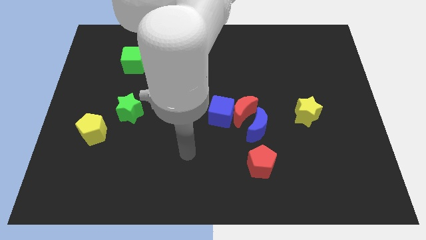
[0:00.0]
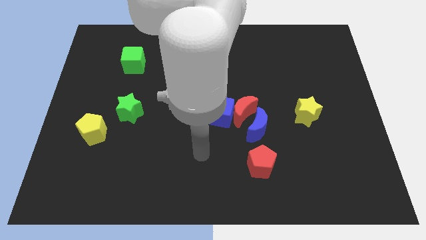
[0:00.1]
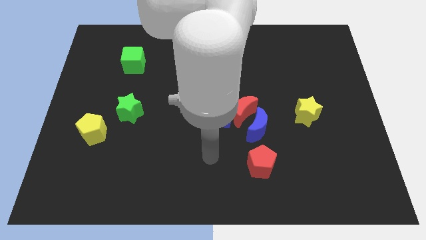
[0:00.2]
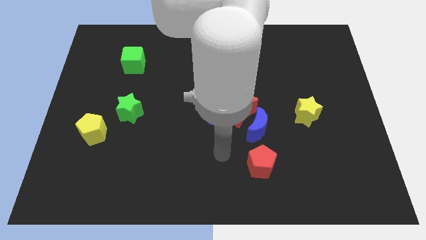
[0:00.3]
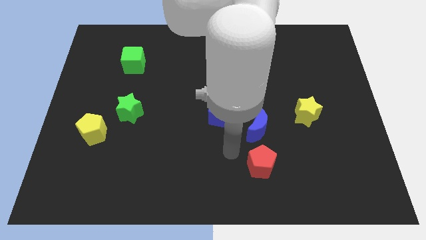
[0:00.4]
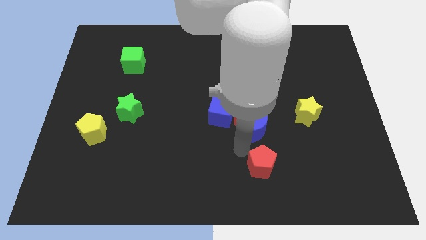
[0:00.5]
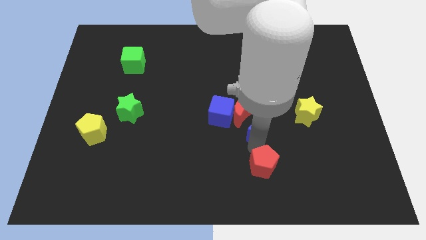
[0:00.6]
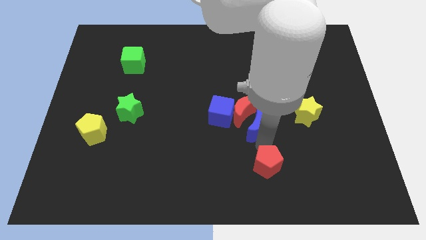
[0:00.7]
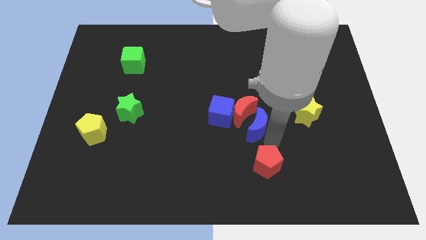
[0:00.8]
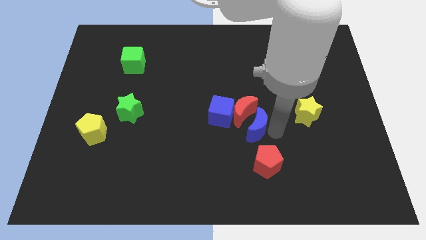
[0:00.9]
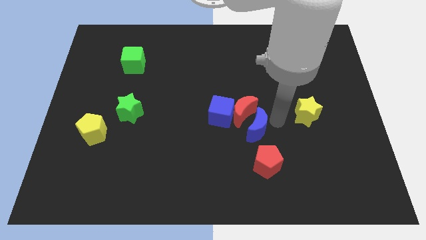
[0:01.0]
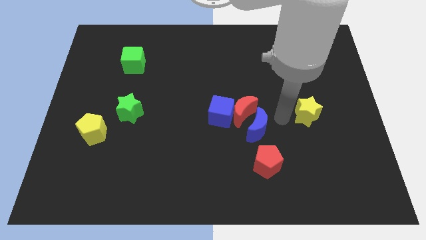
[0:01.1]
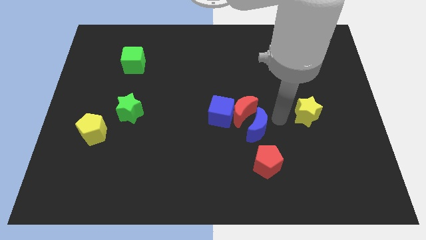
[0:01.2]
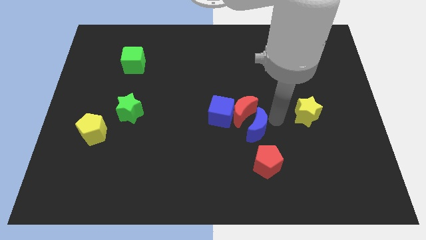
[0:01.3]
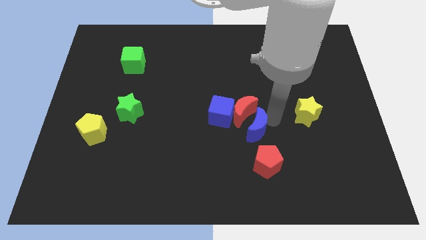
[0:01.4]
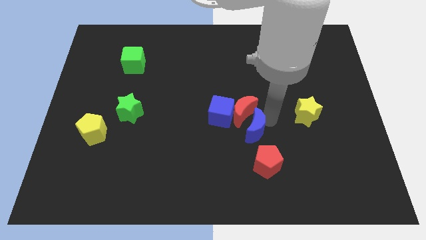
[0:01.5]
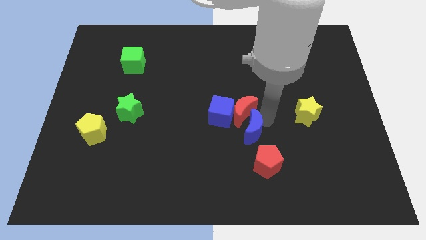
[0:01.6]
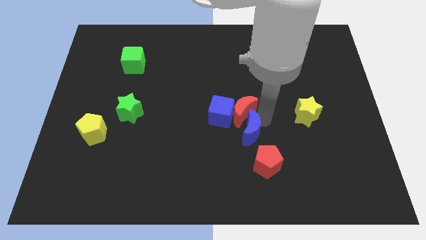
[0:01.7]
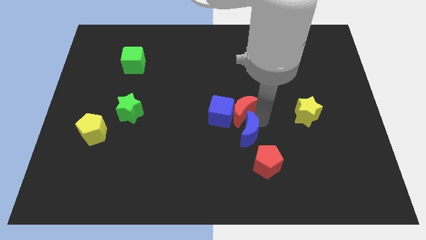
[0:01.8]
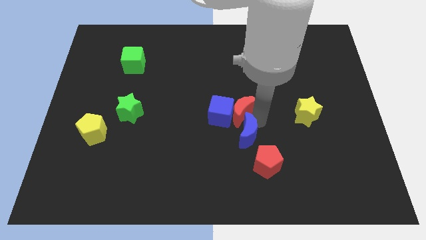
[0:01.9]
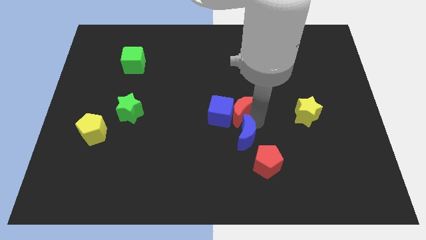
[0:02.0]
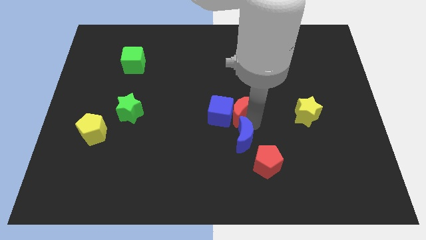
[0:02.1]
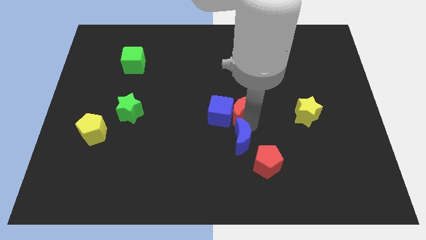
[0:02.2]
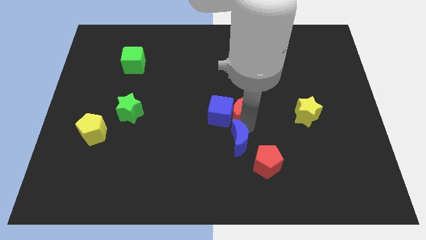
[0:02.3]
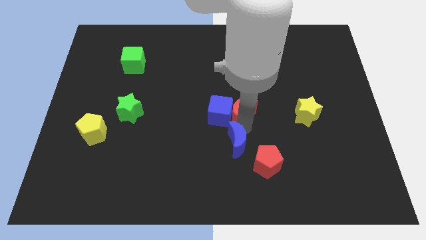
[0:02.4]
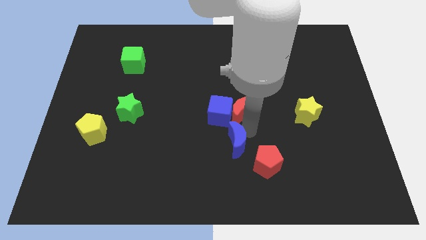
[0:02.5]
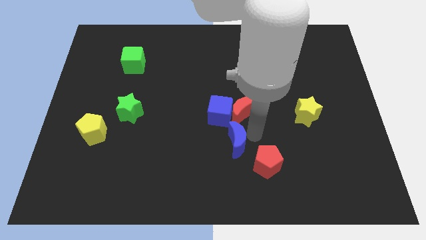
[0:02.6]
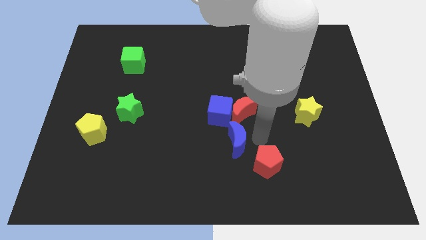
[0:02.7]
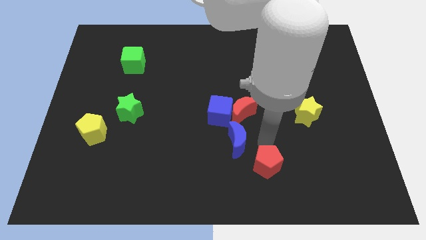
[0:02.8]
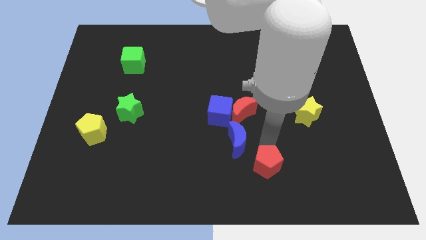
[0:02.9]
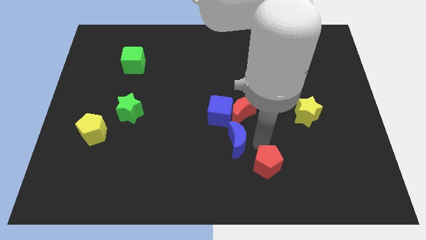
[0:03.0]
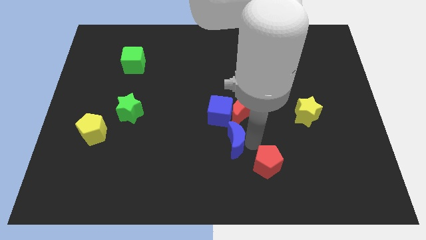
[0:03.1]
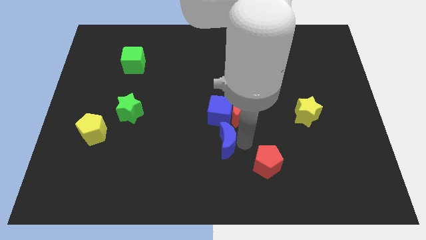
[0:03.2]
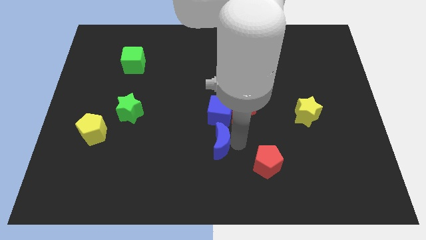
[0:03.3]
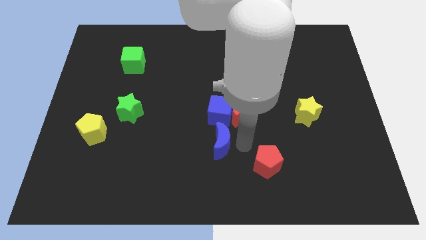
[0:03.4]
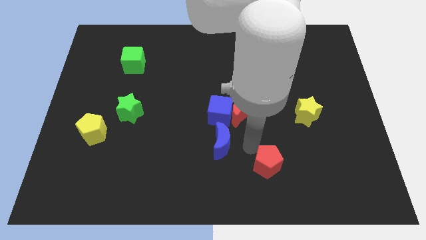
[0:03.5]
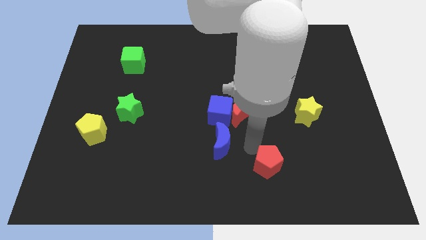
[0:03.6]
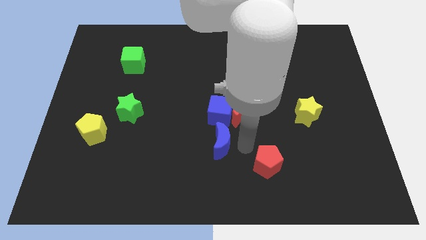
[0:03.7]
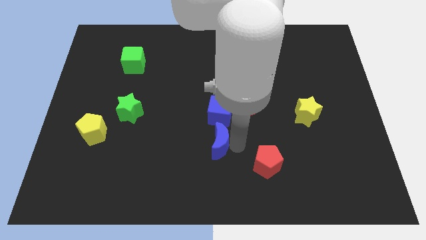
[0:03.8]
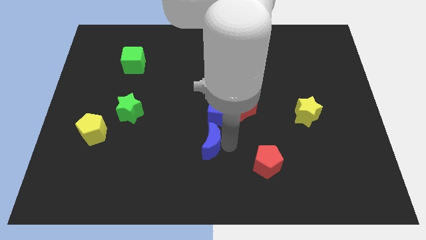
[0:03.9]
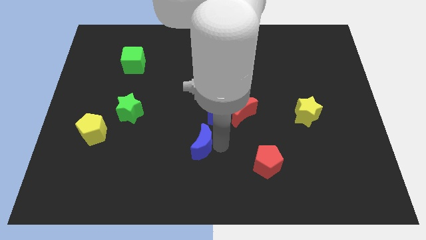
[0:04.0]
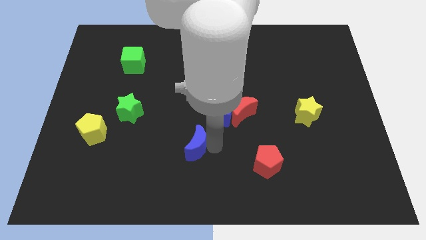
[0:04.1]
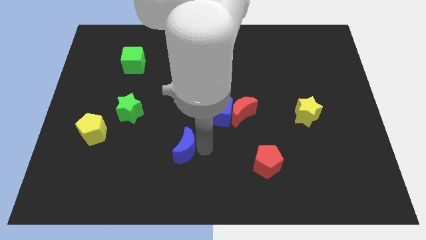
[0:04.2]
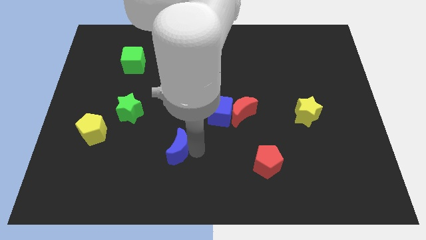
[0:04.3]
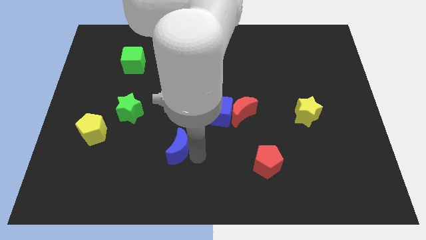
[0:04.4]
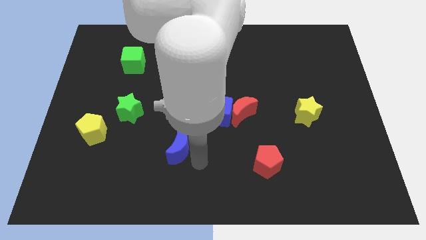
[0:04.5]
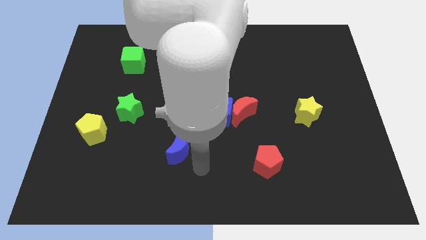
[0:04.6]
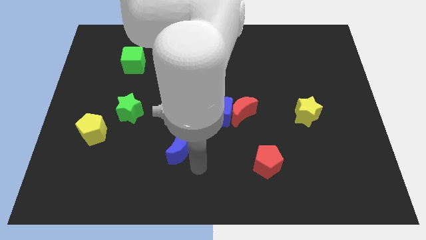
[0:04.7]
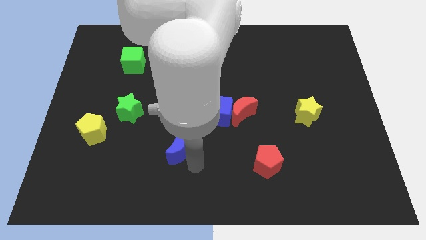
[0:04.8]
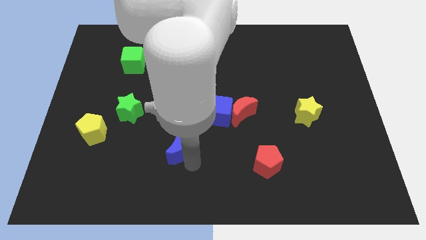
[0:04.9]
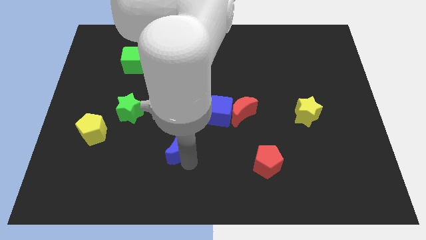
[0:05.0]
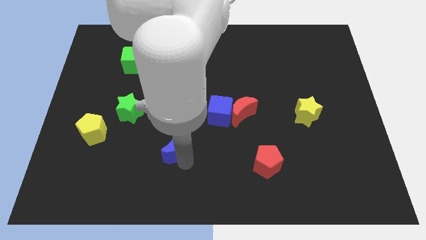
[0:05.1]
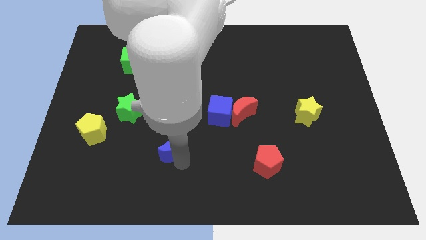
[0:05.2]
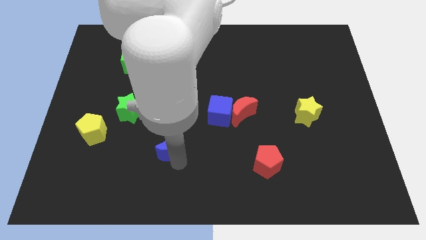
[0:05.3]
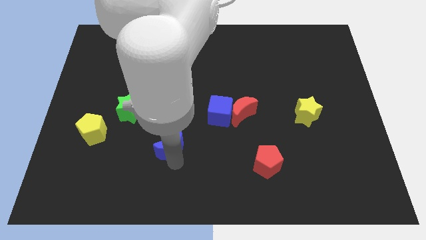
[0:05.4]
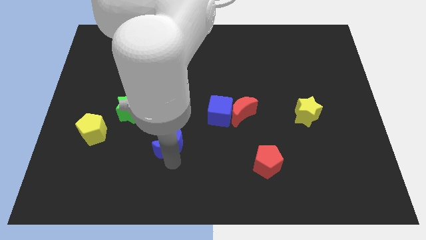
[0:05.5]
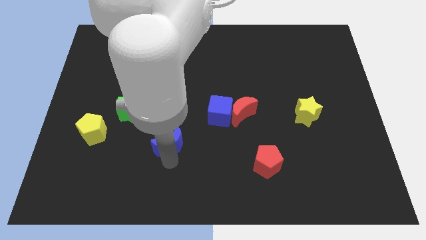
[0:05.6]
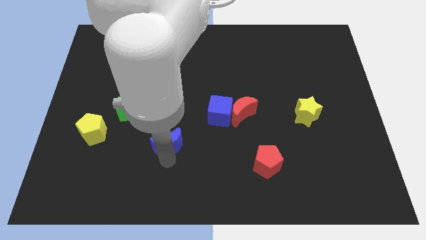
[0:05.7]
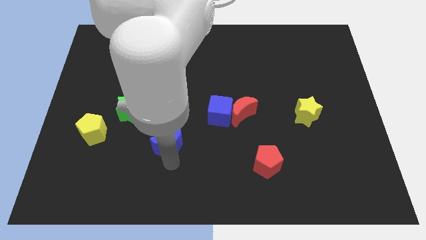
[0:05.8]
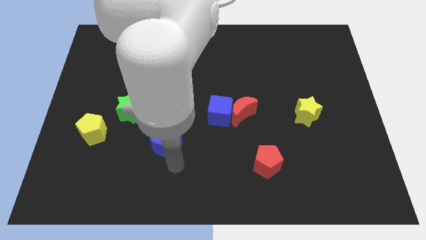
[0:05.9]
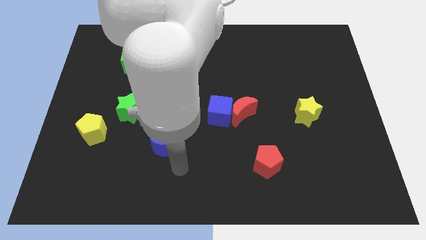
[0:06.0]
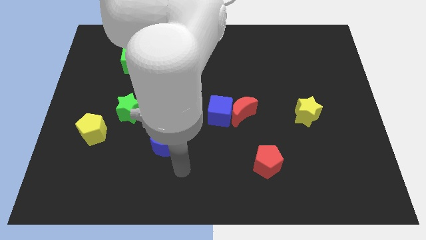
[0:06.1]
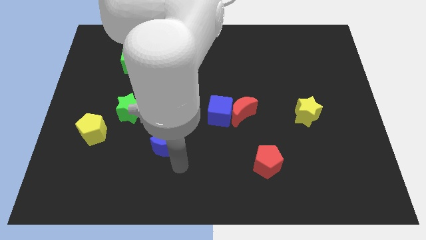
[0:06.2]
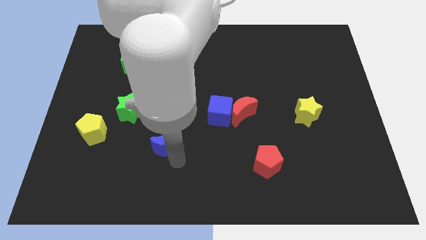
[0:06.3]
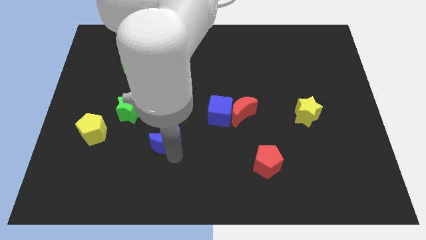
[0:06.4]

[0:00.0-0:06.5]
move the blue moon to the left

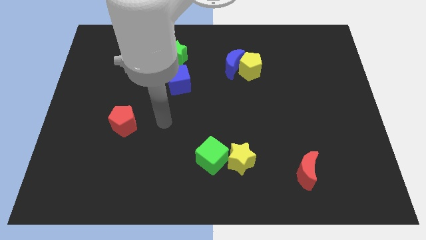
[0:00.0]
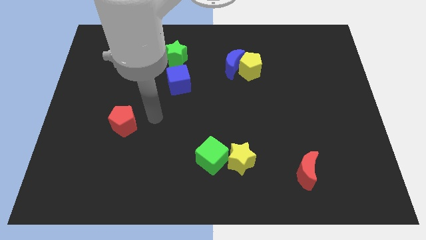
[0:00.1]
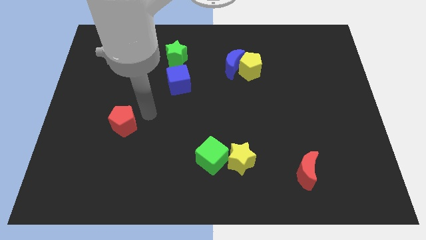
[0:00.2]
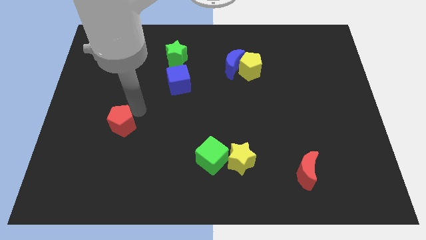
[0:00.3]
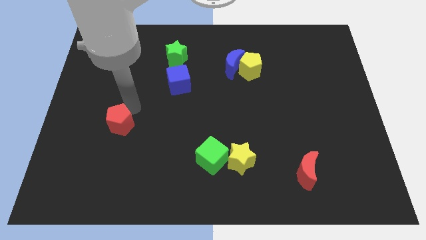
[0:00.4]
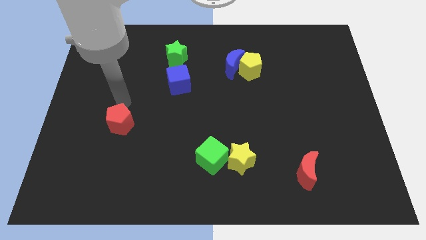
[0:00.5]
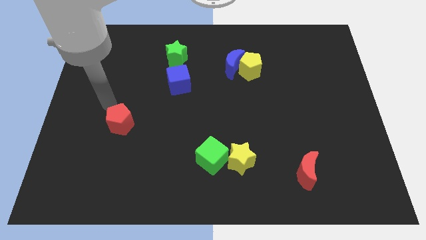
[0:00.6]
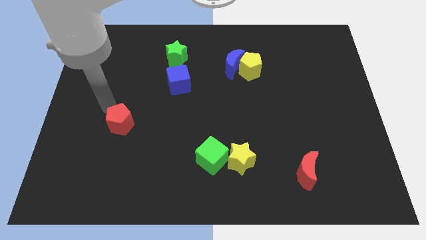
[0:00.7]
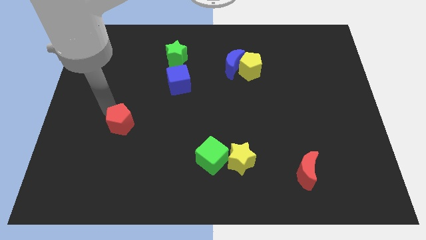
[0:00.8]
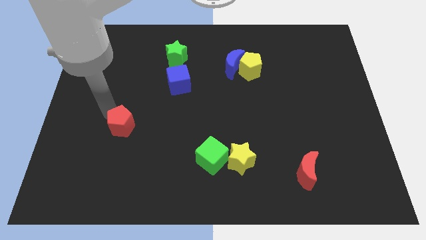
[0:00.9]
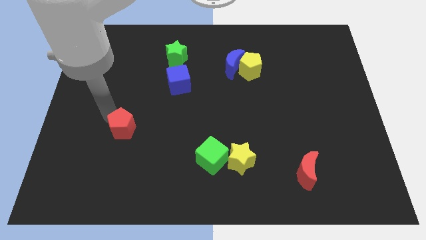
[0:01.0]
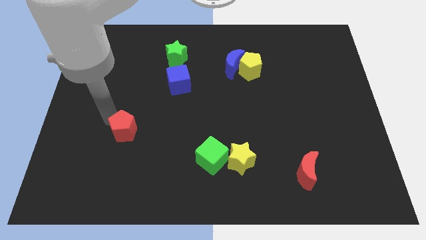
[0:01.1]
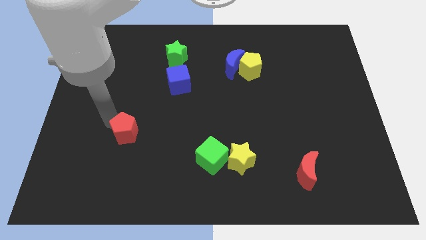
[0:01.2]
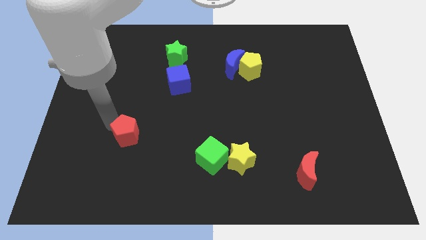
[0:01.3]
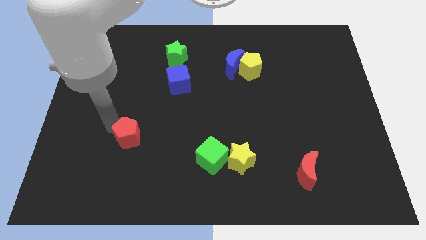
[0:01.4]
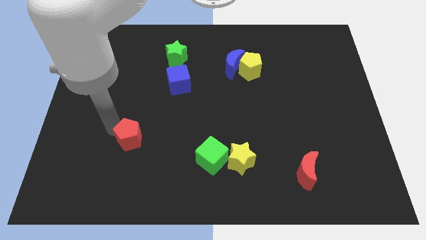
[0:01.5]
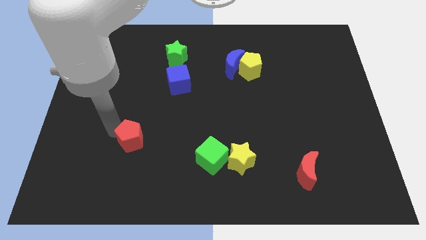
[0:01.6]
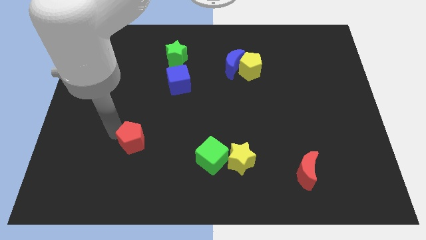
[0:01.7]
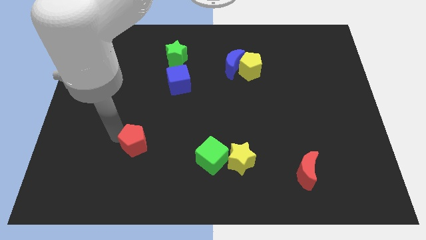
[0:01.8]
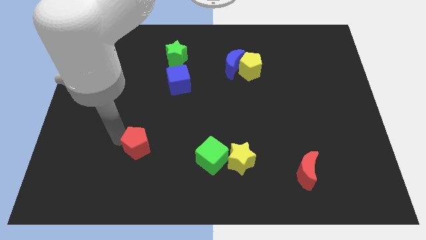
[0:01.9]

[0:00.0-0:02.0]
slightly push the red pentagon downwards and right diagonally
